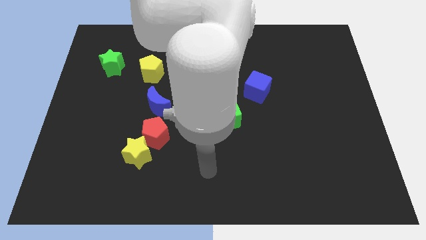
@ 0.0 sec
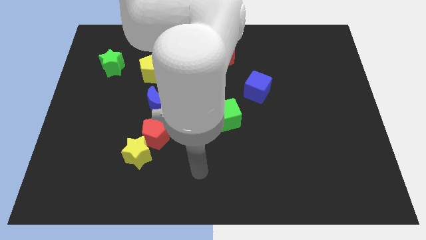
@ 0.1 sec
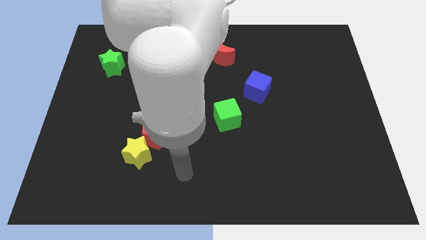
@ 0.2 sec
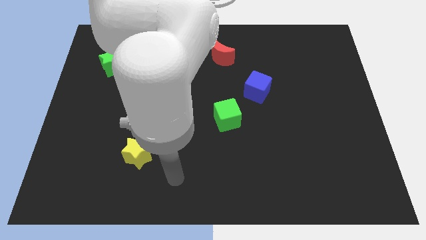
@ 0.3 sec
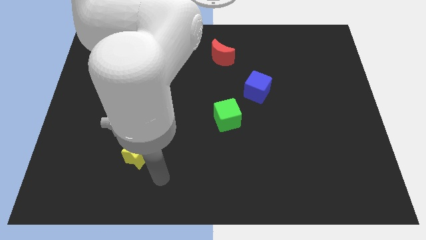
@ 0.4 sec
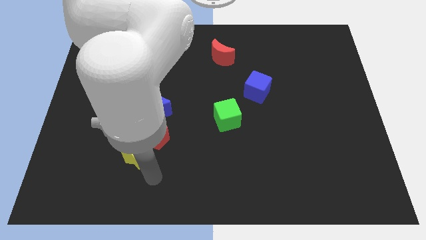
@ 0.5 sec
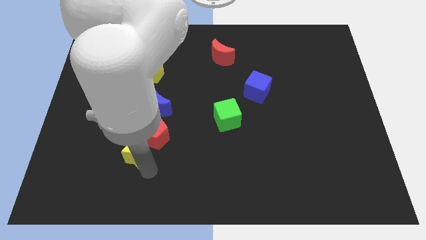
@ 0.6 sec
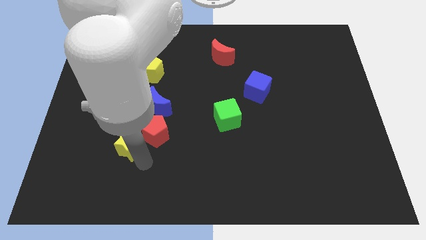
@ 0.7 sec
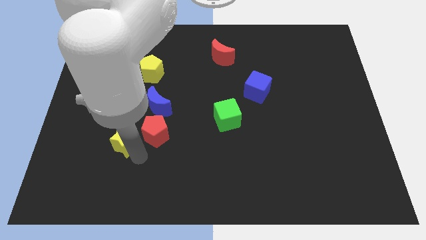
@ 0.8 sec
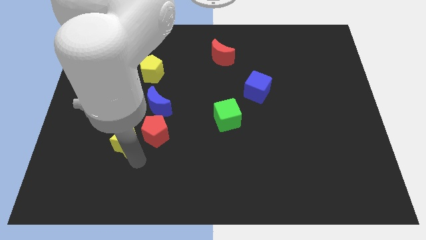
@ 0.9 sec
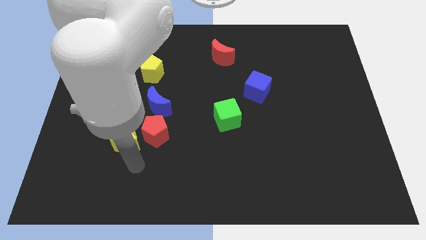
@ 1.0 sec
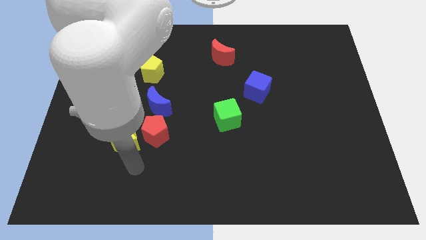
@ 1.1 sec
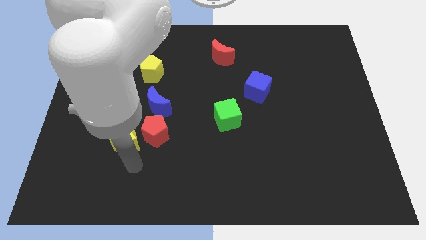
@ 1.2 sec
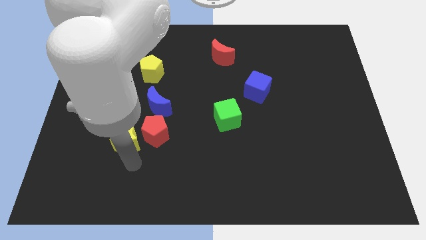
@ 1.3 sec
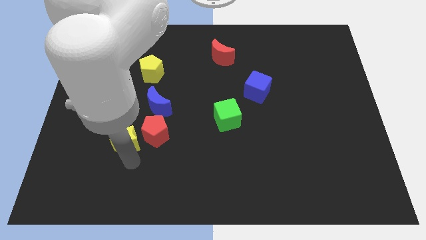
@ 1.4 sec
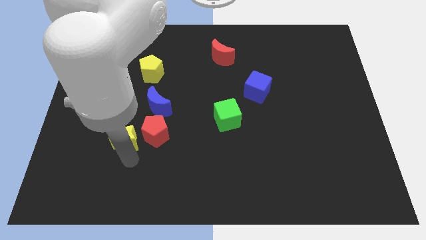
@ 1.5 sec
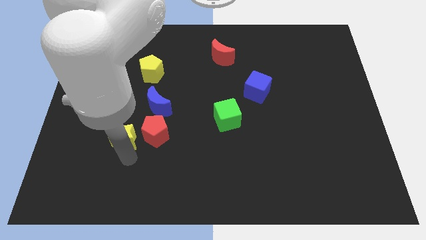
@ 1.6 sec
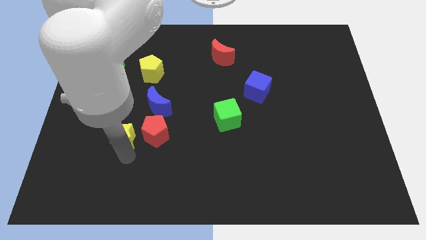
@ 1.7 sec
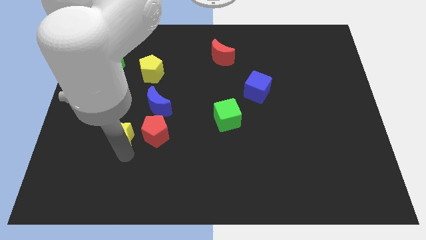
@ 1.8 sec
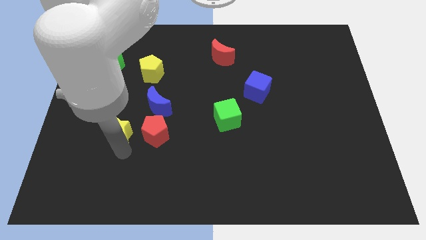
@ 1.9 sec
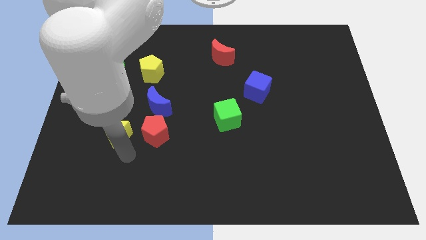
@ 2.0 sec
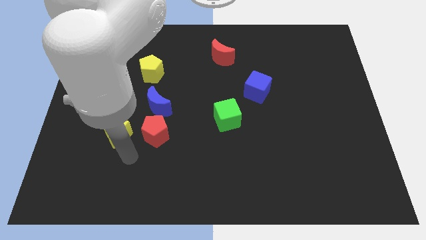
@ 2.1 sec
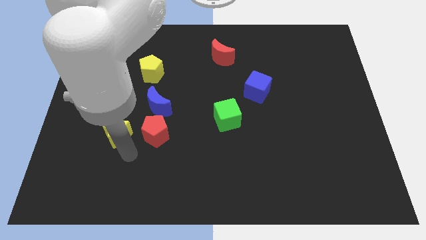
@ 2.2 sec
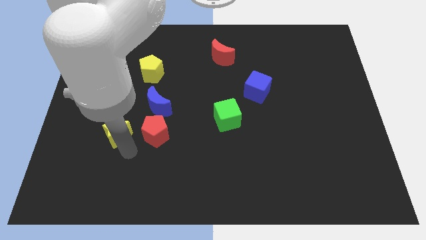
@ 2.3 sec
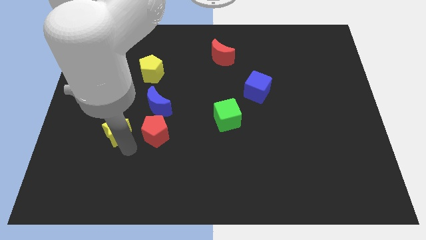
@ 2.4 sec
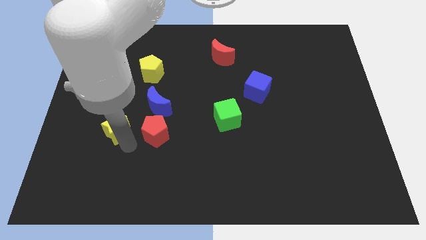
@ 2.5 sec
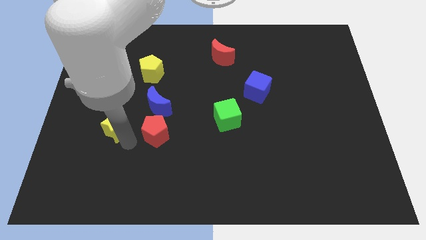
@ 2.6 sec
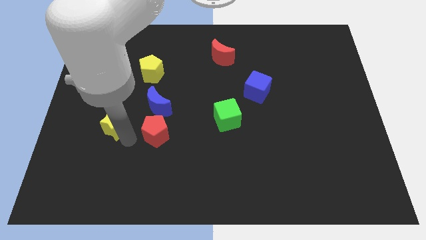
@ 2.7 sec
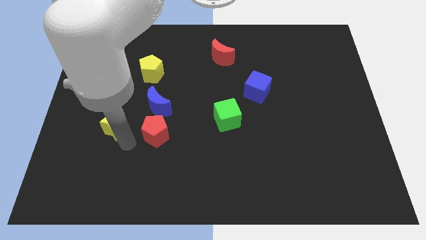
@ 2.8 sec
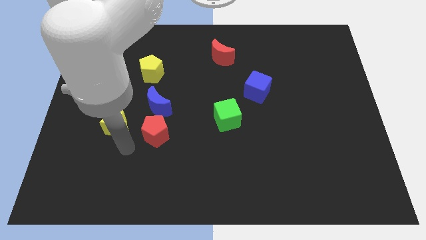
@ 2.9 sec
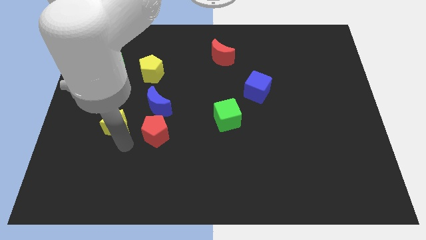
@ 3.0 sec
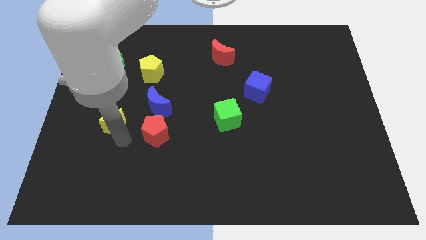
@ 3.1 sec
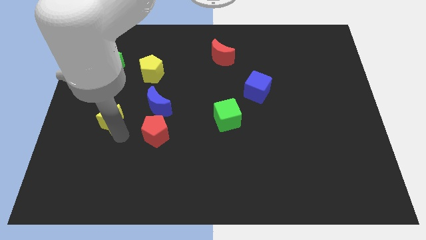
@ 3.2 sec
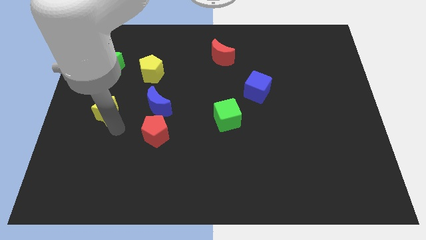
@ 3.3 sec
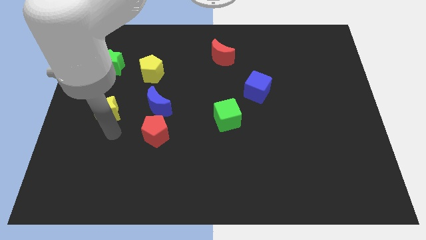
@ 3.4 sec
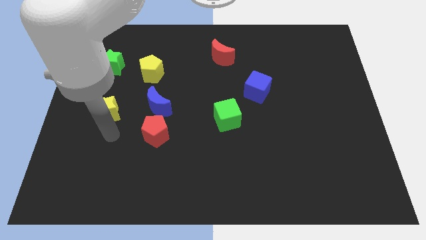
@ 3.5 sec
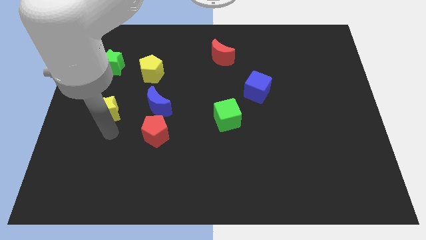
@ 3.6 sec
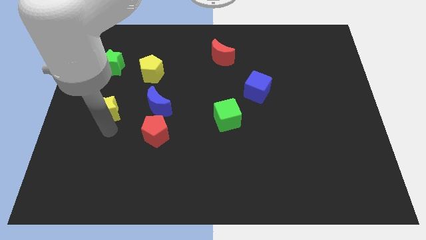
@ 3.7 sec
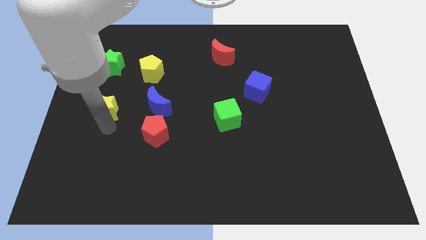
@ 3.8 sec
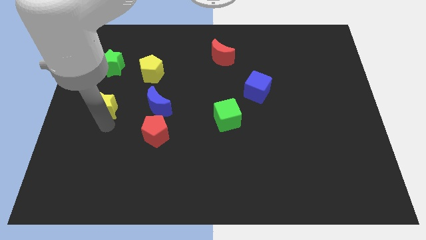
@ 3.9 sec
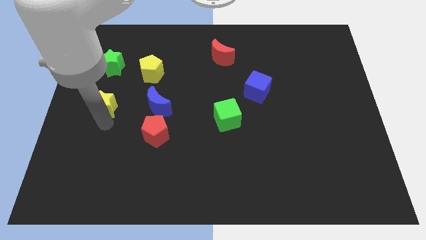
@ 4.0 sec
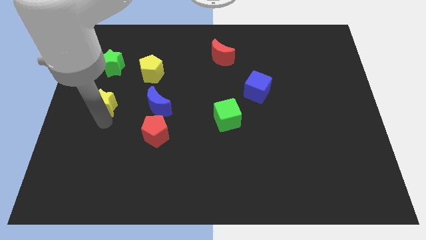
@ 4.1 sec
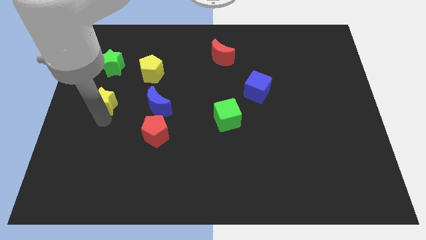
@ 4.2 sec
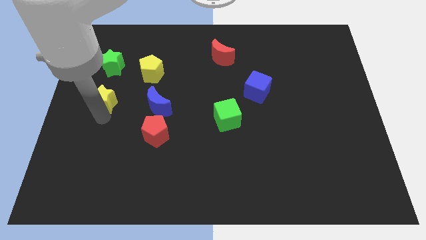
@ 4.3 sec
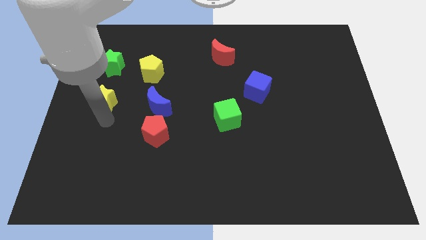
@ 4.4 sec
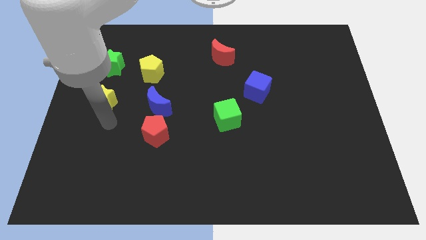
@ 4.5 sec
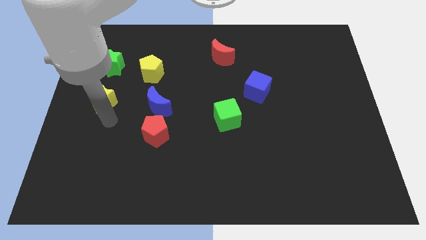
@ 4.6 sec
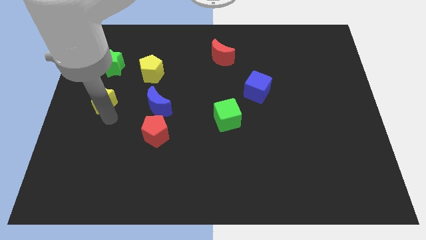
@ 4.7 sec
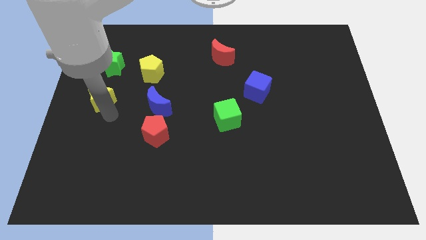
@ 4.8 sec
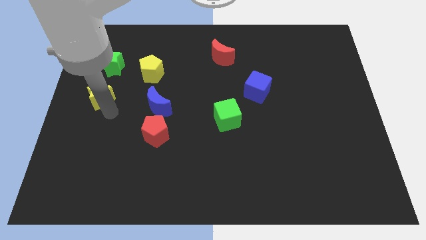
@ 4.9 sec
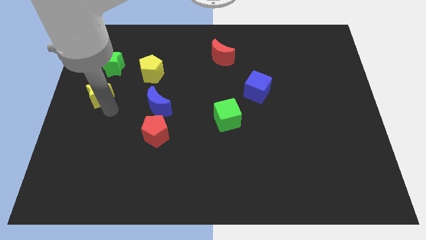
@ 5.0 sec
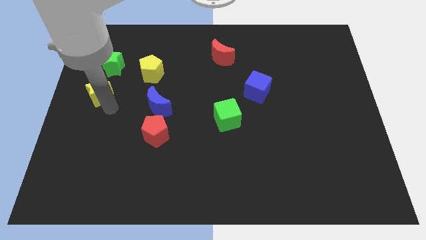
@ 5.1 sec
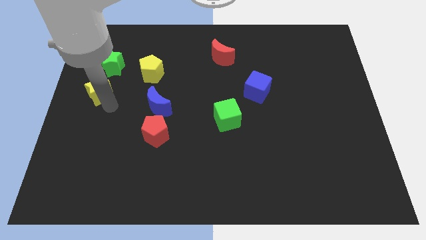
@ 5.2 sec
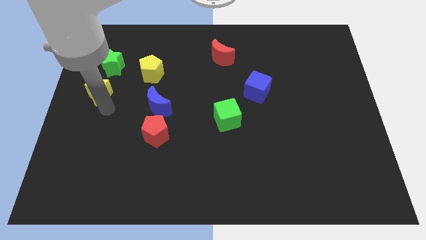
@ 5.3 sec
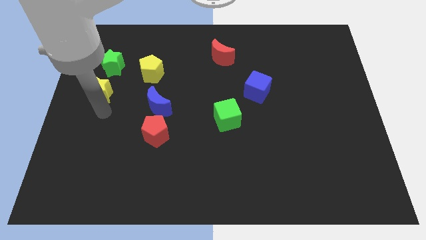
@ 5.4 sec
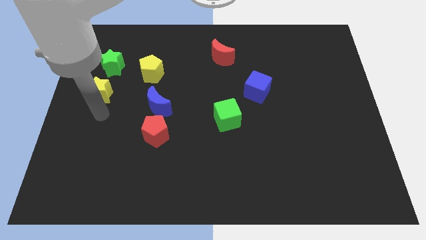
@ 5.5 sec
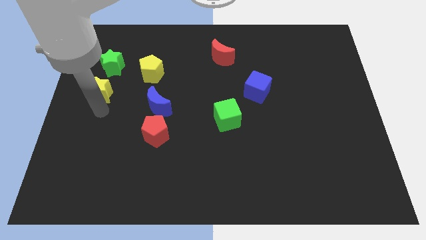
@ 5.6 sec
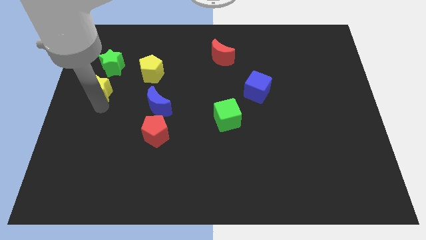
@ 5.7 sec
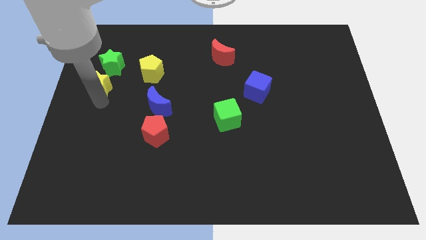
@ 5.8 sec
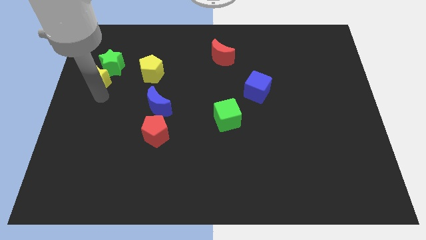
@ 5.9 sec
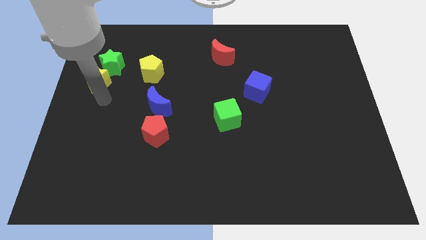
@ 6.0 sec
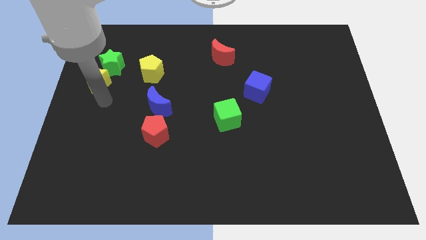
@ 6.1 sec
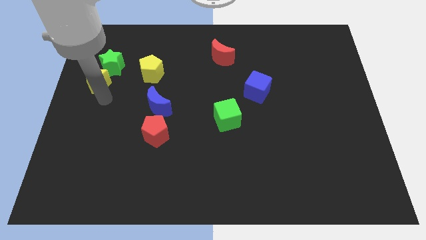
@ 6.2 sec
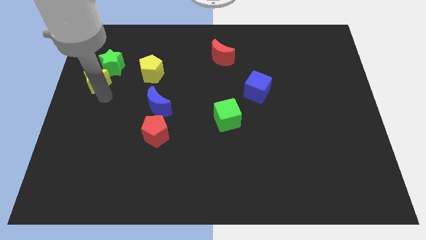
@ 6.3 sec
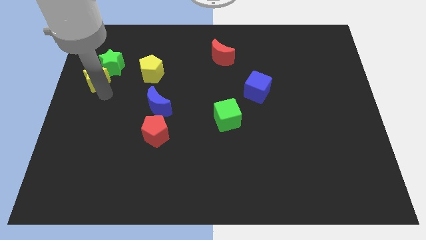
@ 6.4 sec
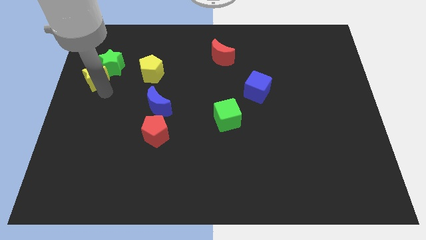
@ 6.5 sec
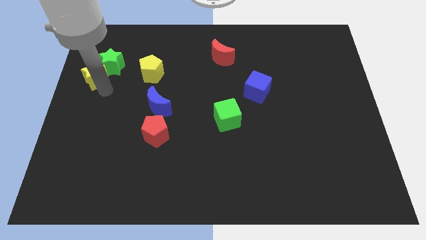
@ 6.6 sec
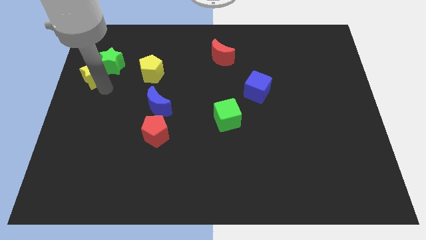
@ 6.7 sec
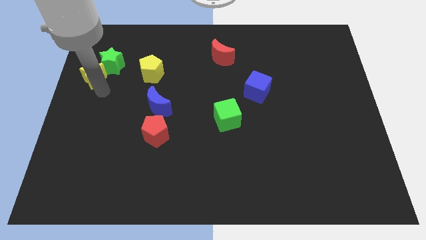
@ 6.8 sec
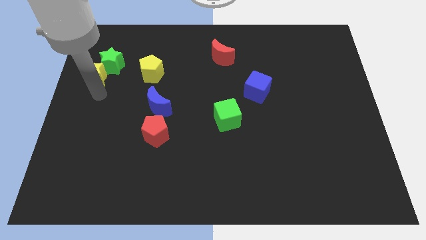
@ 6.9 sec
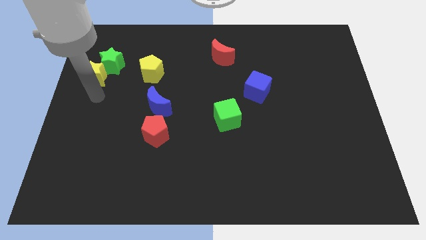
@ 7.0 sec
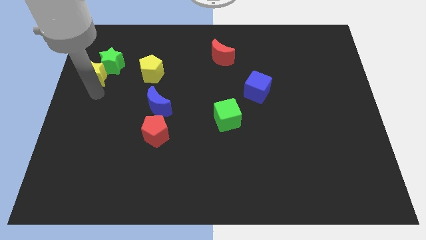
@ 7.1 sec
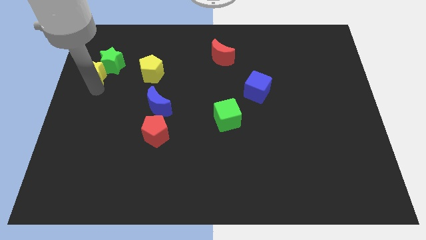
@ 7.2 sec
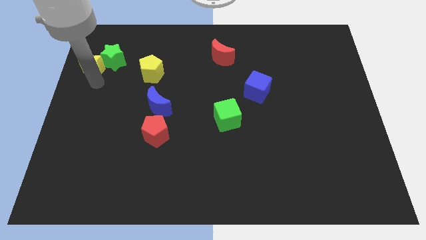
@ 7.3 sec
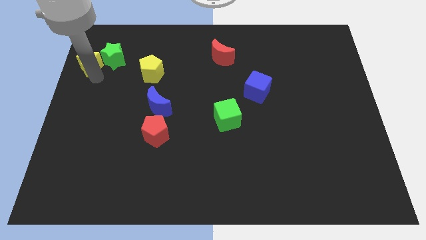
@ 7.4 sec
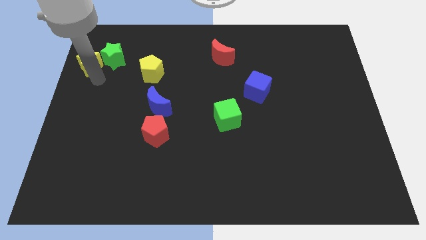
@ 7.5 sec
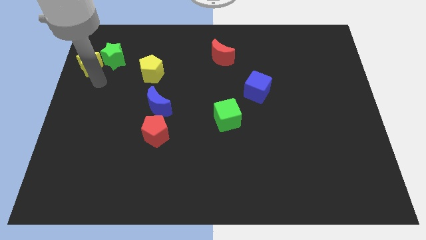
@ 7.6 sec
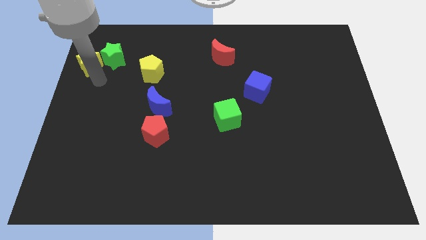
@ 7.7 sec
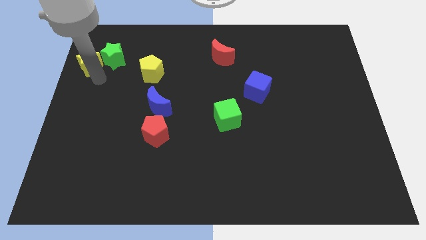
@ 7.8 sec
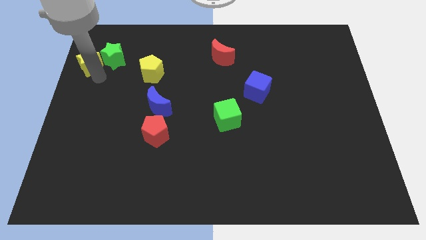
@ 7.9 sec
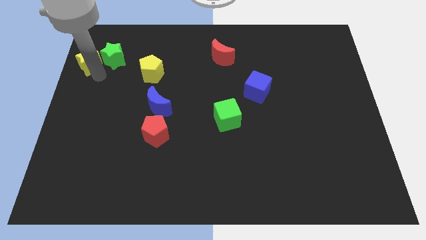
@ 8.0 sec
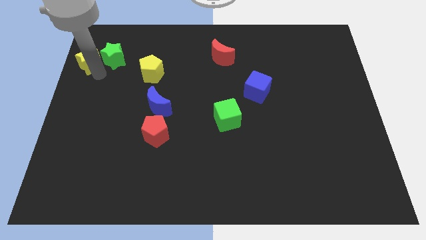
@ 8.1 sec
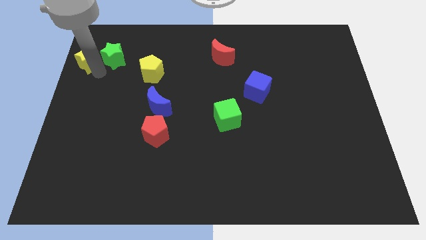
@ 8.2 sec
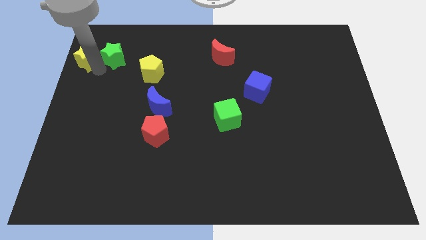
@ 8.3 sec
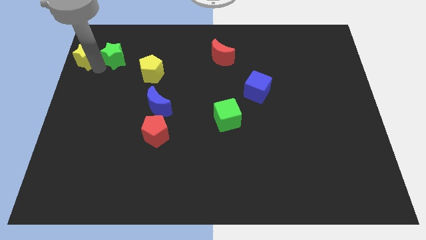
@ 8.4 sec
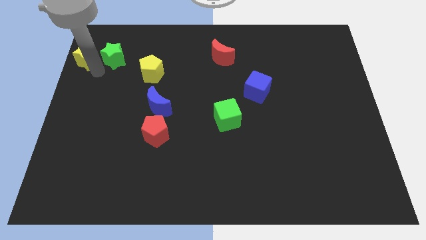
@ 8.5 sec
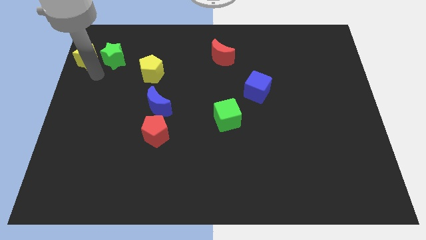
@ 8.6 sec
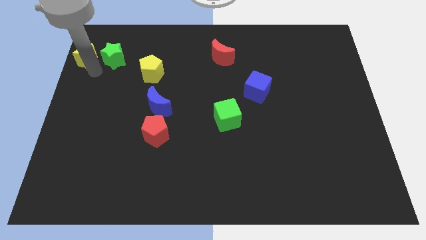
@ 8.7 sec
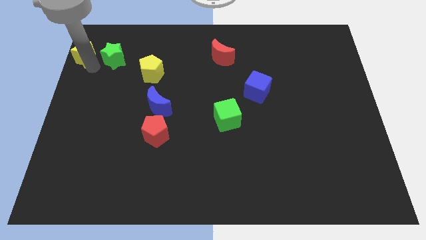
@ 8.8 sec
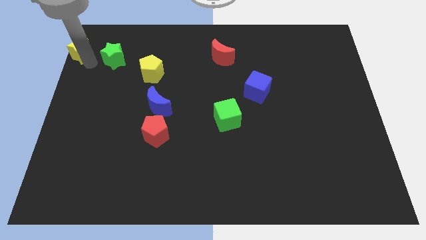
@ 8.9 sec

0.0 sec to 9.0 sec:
push the yellow star to the upper left corner
